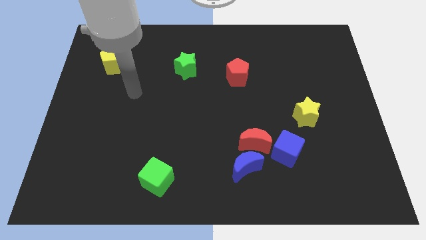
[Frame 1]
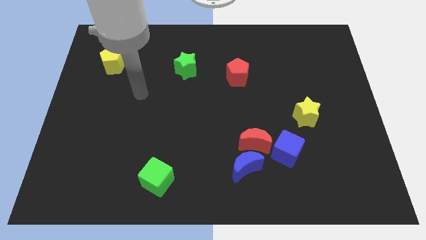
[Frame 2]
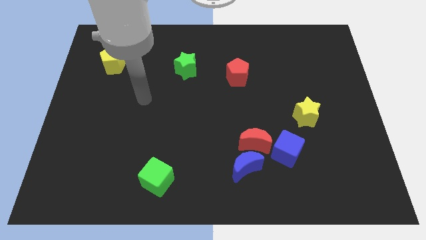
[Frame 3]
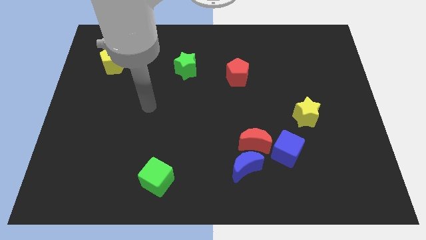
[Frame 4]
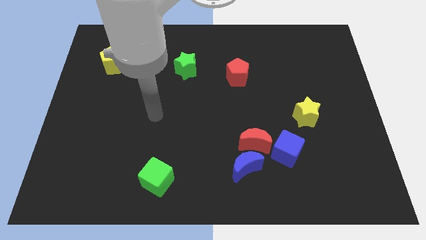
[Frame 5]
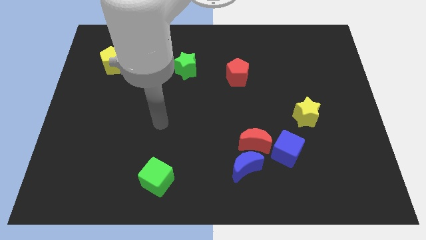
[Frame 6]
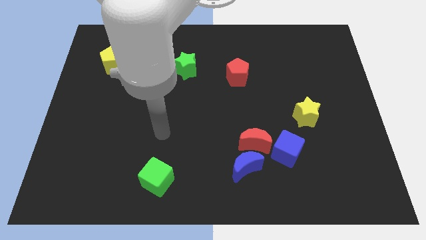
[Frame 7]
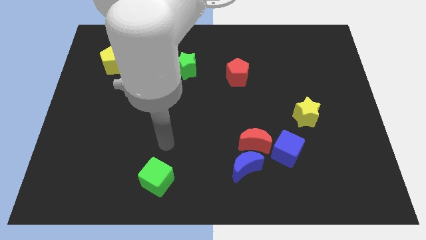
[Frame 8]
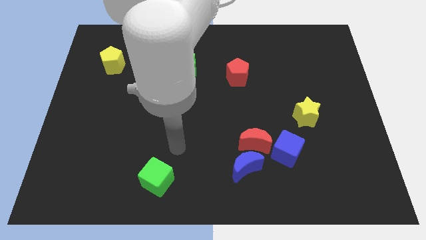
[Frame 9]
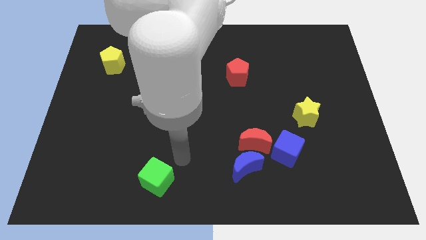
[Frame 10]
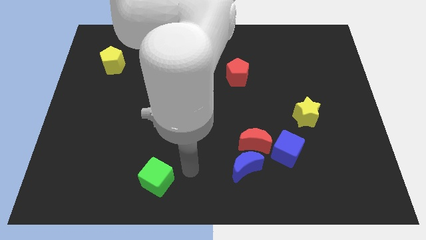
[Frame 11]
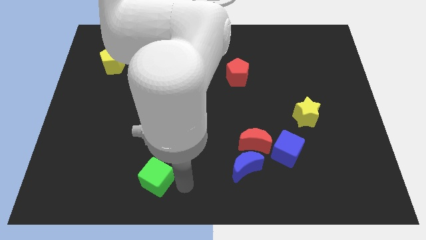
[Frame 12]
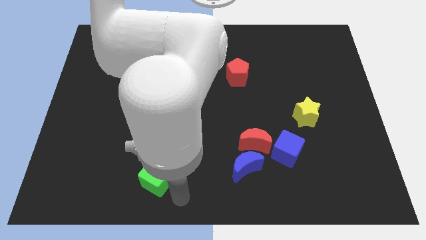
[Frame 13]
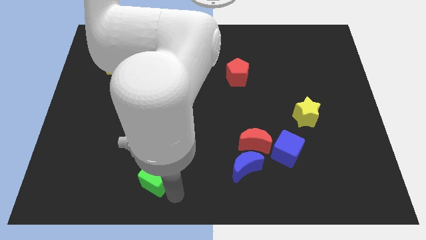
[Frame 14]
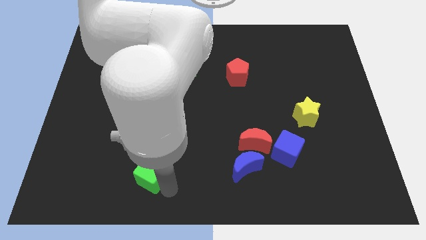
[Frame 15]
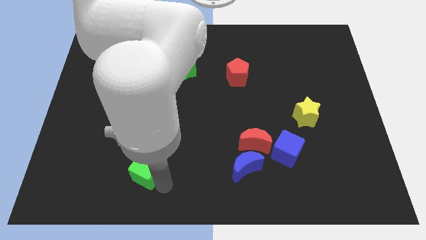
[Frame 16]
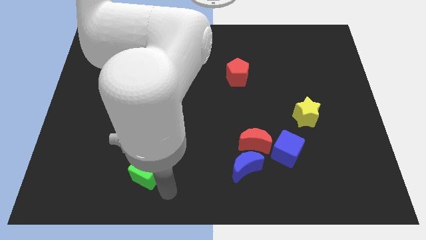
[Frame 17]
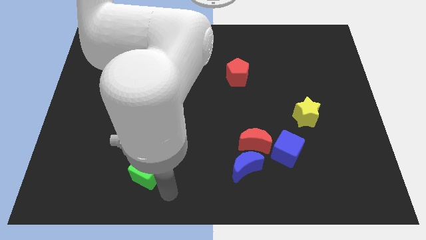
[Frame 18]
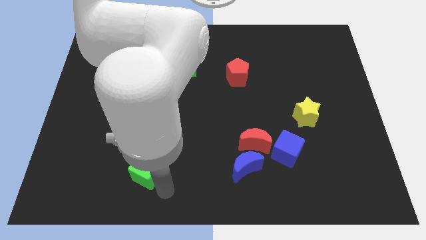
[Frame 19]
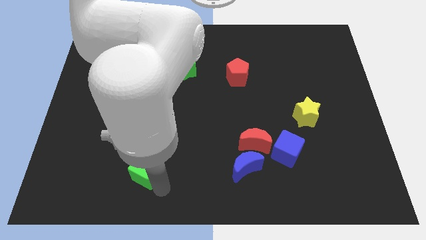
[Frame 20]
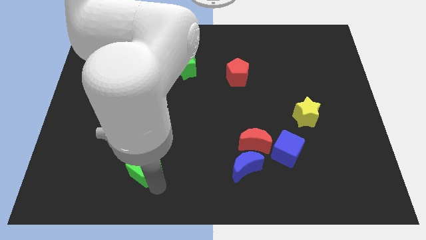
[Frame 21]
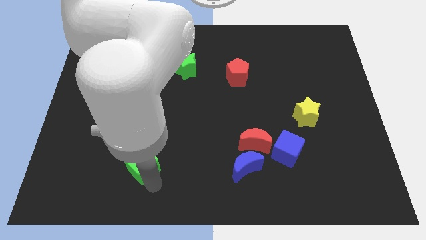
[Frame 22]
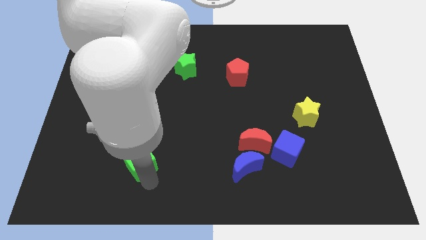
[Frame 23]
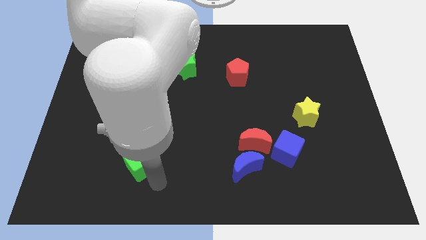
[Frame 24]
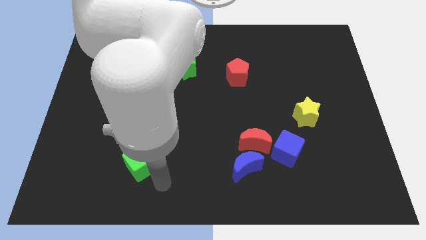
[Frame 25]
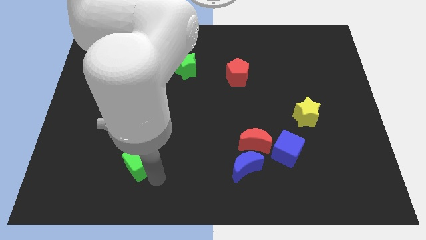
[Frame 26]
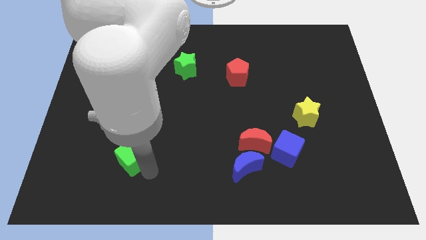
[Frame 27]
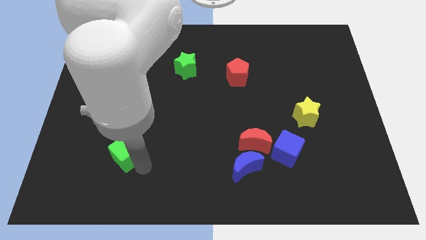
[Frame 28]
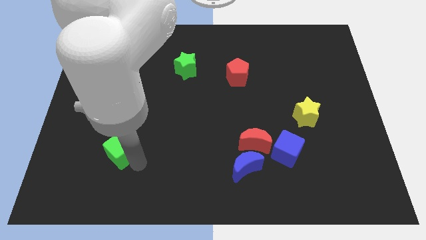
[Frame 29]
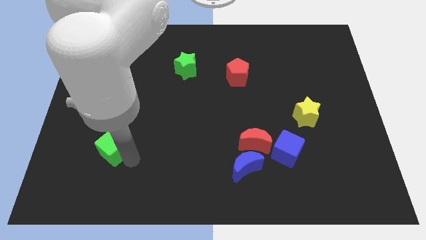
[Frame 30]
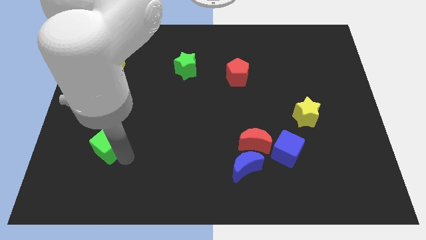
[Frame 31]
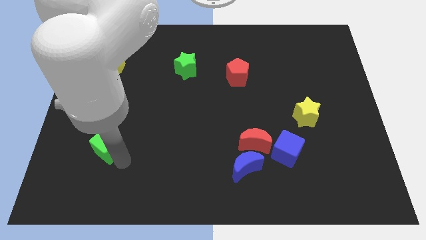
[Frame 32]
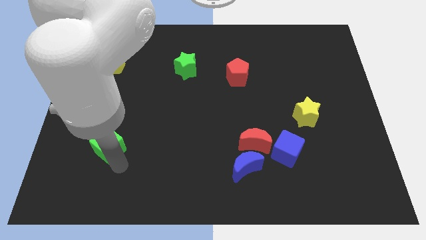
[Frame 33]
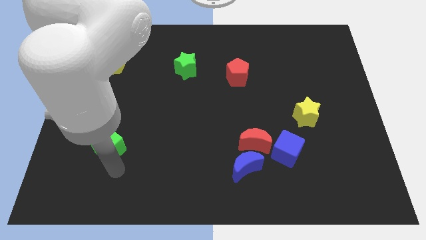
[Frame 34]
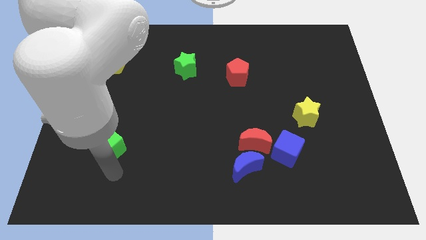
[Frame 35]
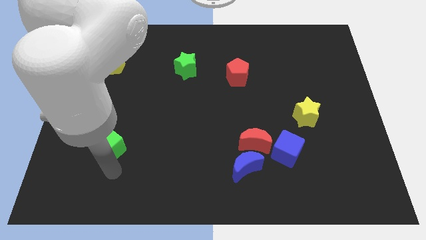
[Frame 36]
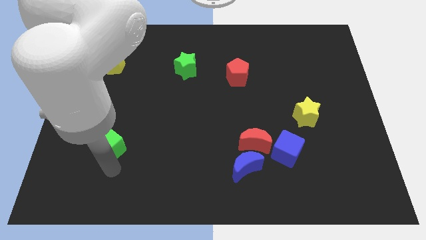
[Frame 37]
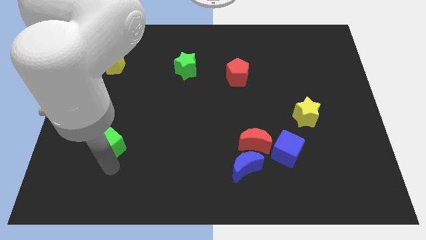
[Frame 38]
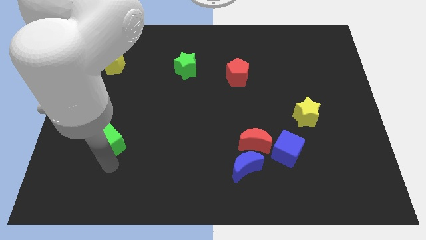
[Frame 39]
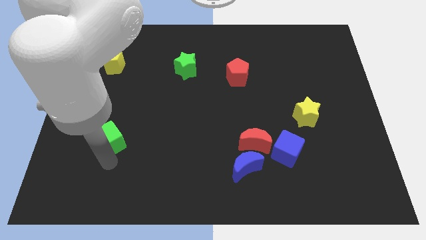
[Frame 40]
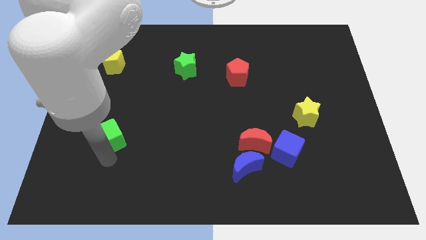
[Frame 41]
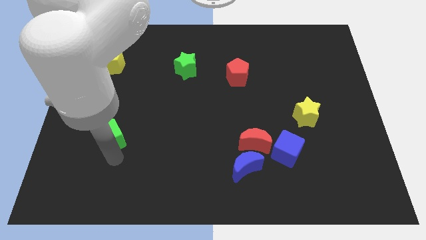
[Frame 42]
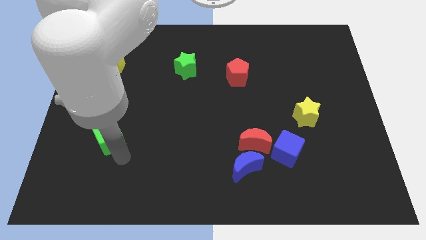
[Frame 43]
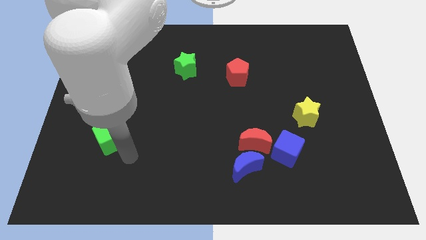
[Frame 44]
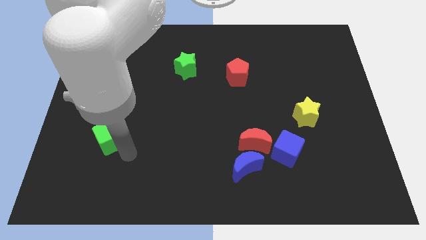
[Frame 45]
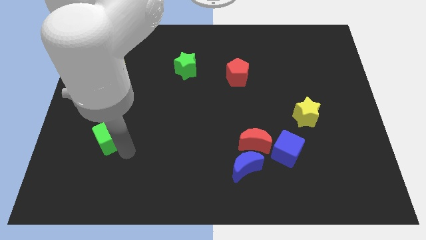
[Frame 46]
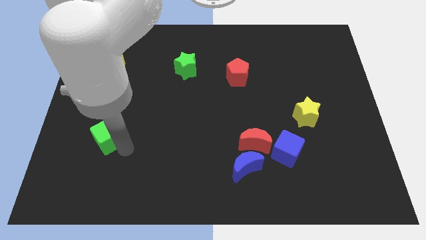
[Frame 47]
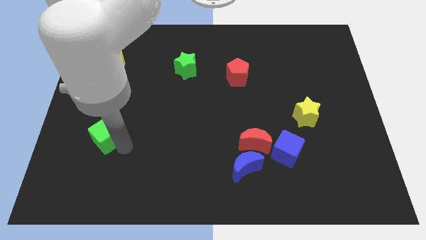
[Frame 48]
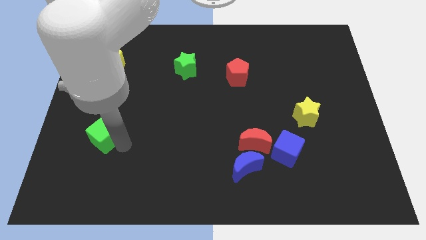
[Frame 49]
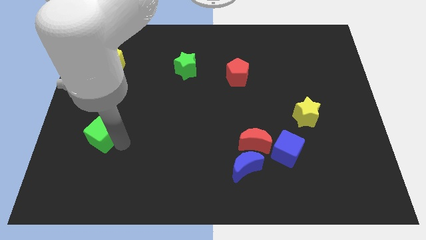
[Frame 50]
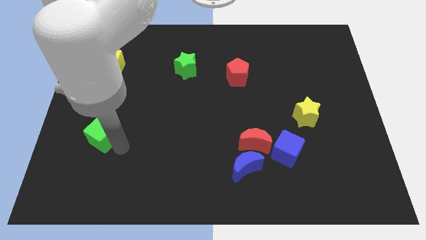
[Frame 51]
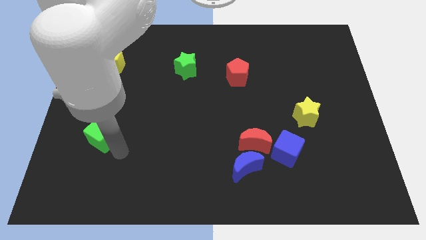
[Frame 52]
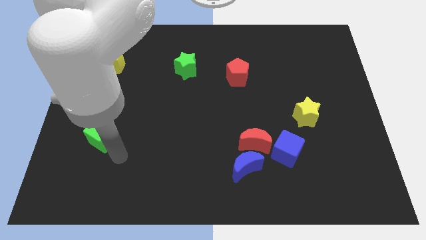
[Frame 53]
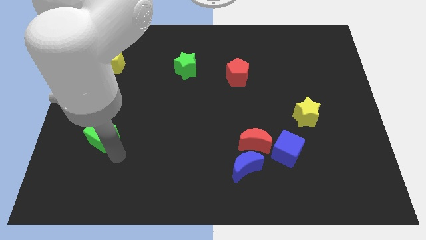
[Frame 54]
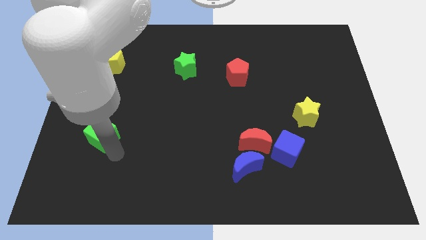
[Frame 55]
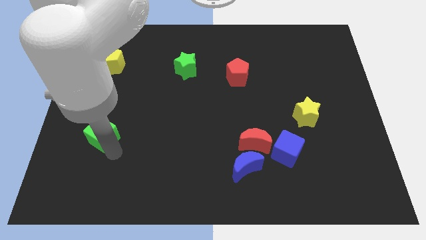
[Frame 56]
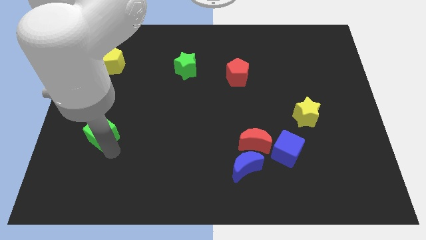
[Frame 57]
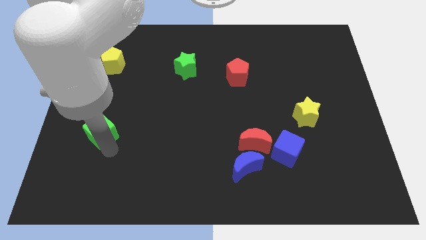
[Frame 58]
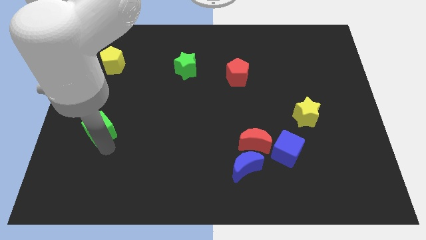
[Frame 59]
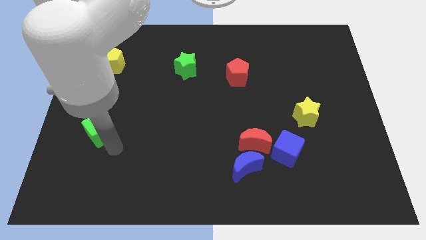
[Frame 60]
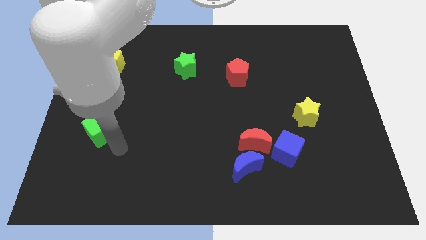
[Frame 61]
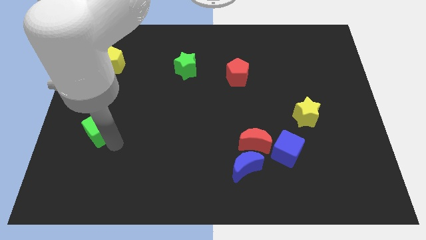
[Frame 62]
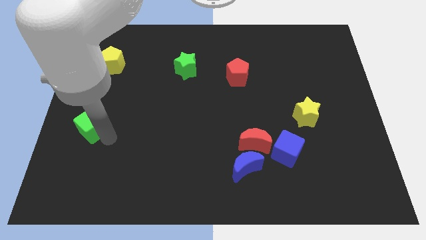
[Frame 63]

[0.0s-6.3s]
slide the green cube to the left side of the board

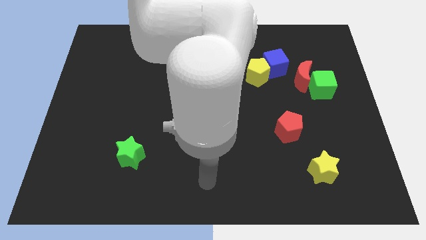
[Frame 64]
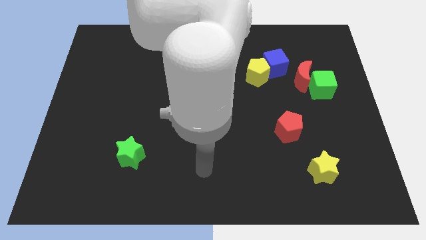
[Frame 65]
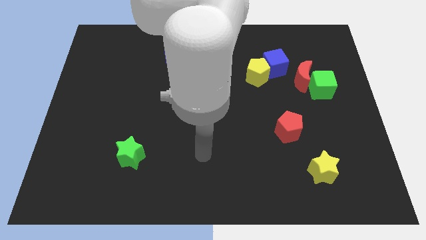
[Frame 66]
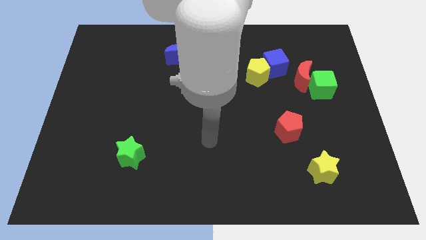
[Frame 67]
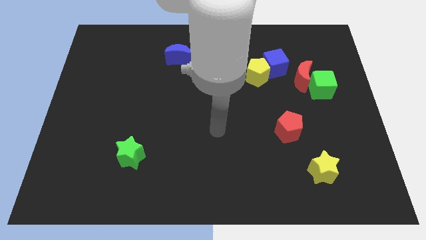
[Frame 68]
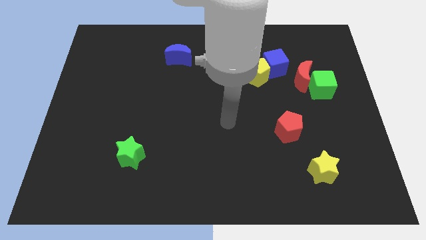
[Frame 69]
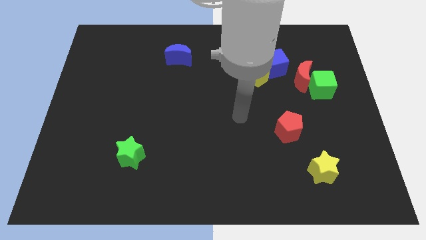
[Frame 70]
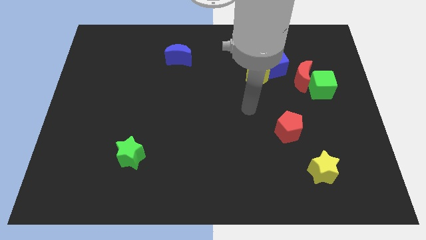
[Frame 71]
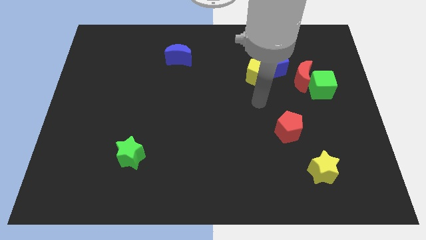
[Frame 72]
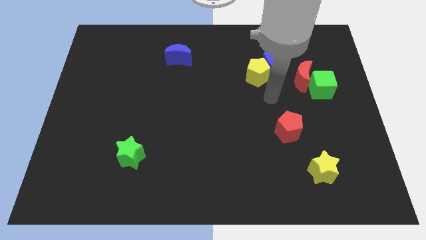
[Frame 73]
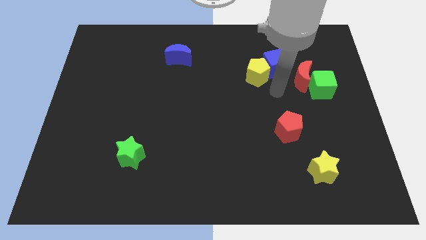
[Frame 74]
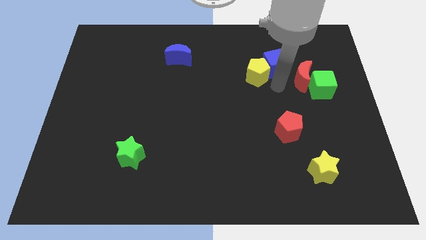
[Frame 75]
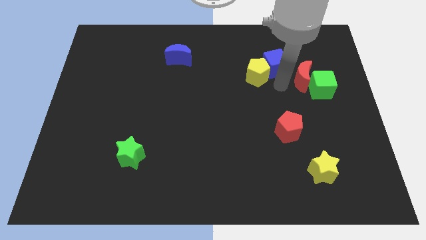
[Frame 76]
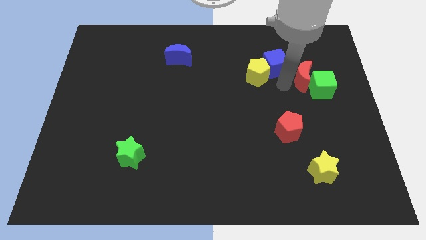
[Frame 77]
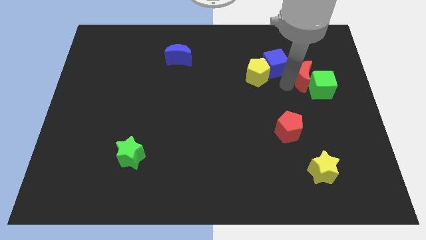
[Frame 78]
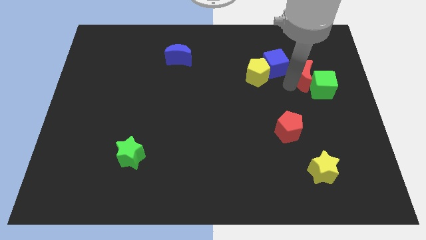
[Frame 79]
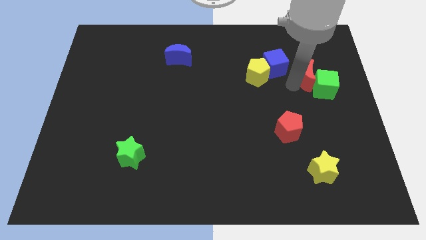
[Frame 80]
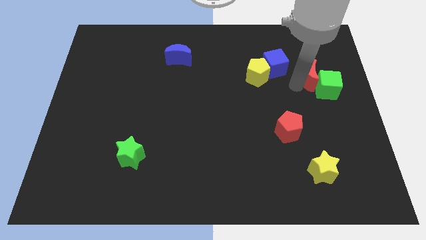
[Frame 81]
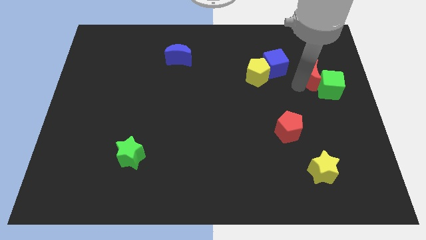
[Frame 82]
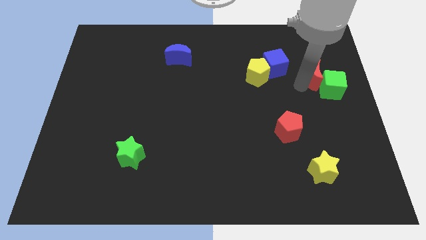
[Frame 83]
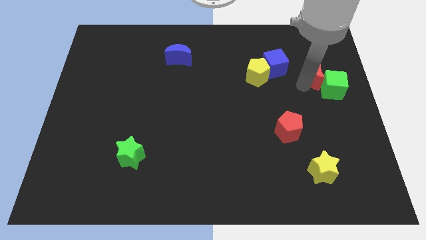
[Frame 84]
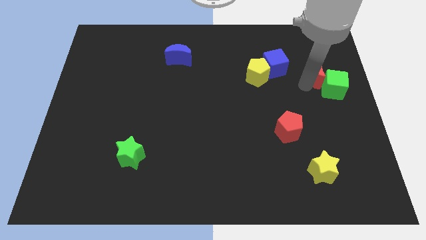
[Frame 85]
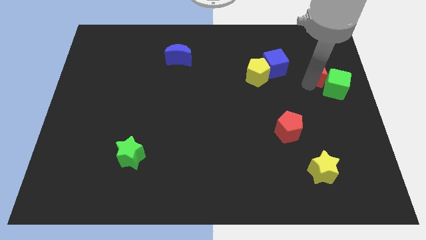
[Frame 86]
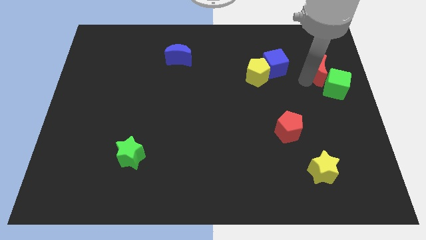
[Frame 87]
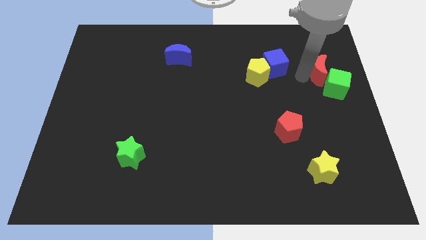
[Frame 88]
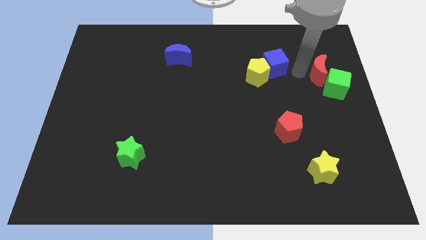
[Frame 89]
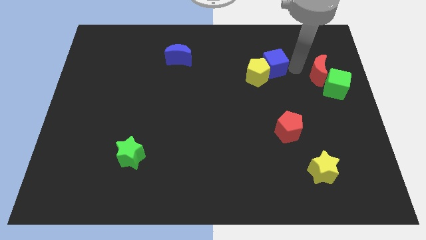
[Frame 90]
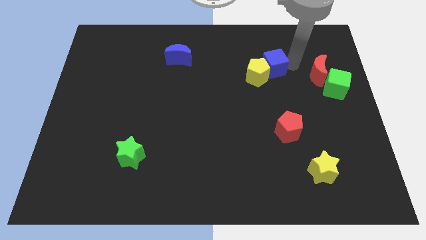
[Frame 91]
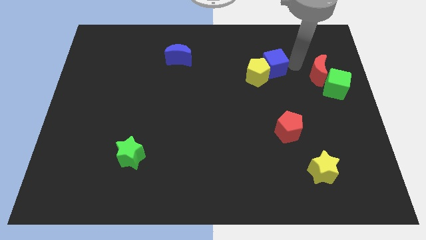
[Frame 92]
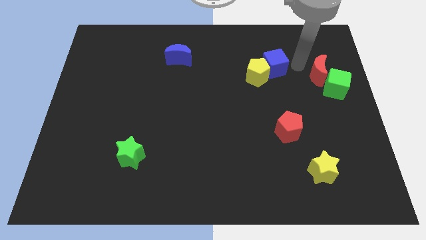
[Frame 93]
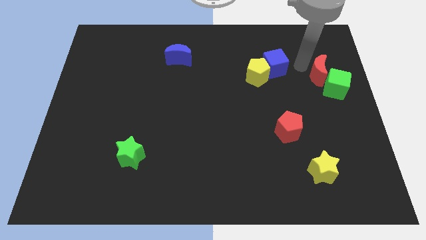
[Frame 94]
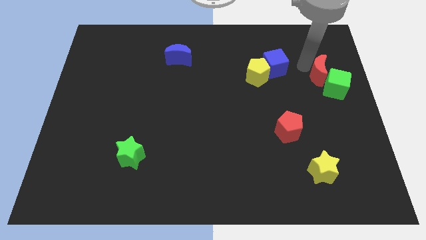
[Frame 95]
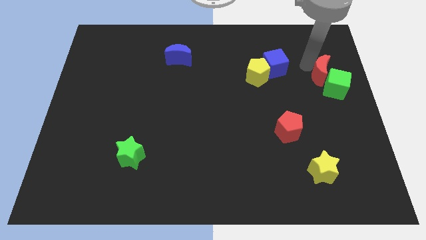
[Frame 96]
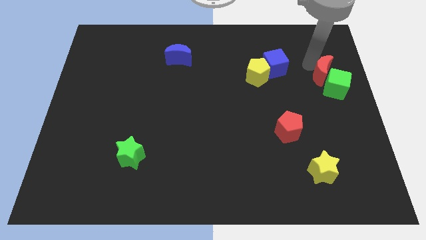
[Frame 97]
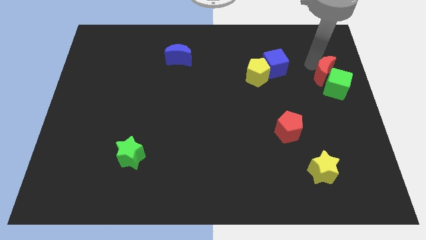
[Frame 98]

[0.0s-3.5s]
slide the red moon to the right side
